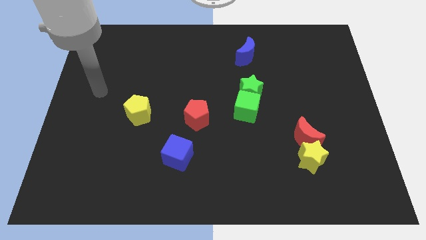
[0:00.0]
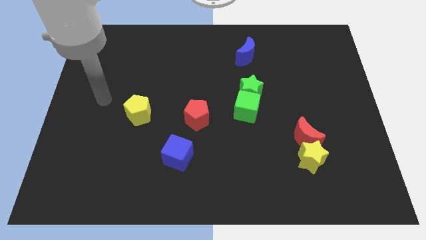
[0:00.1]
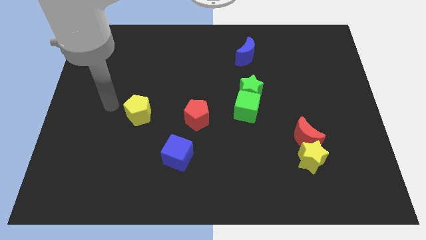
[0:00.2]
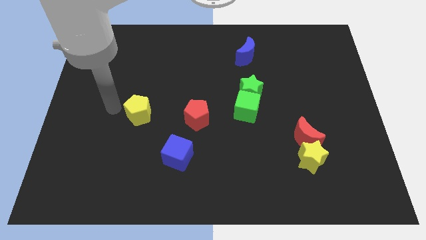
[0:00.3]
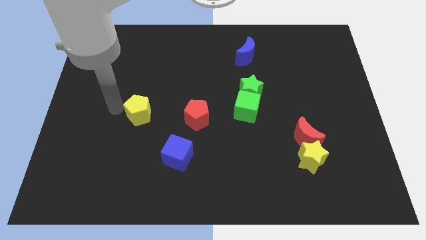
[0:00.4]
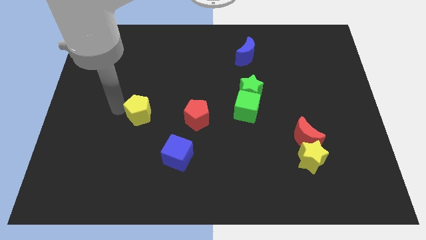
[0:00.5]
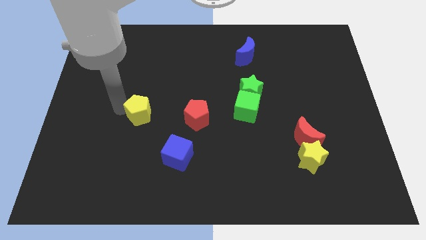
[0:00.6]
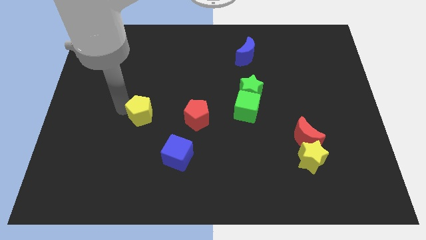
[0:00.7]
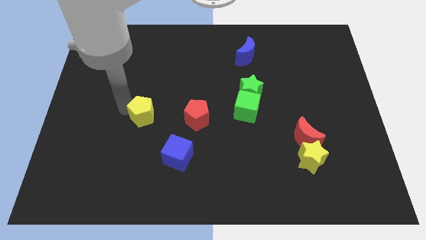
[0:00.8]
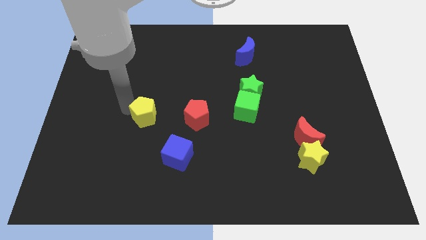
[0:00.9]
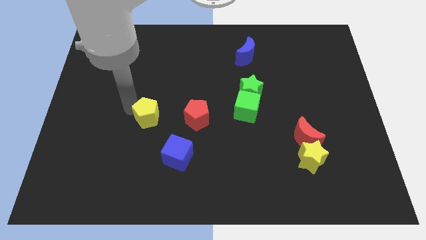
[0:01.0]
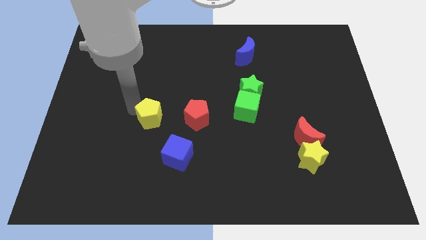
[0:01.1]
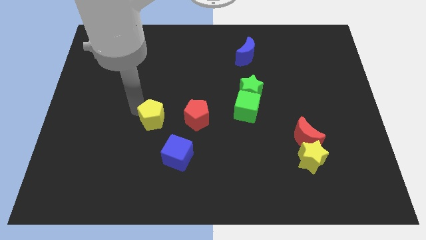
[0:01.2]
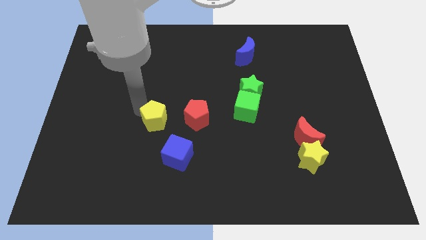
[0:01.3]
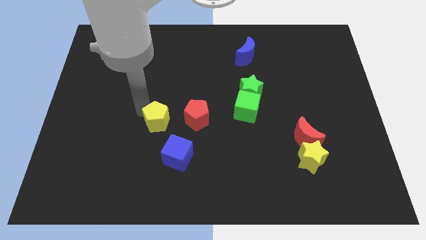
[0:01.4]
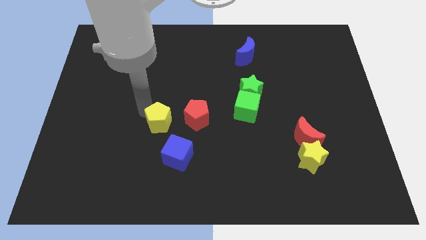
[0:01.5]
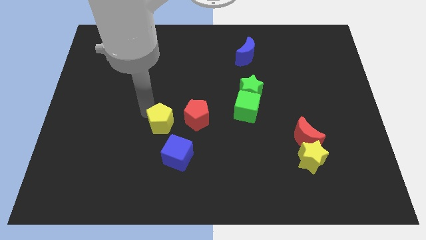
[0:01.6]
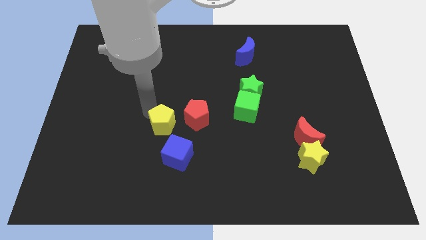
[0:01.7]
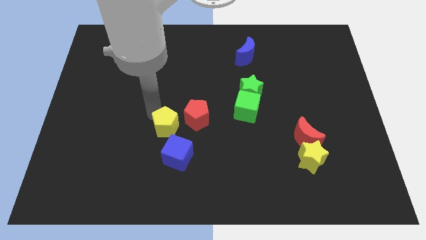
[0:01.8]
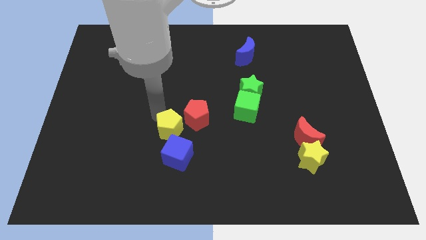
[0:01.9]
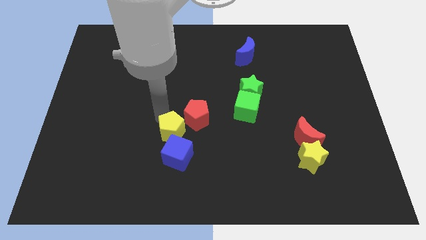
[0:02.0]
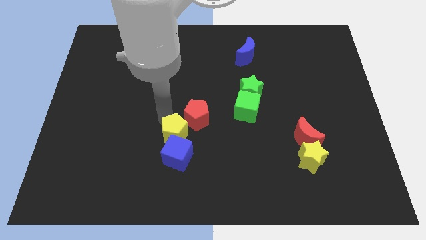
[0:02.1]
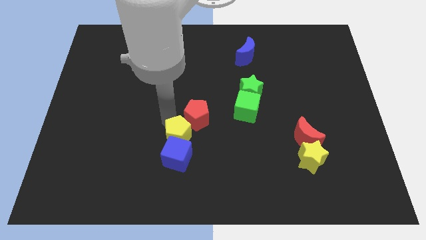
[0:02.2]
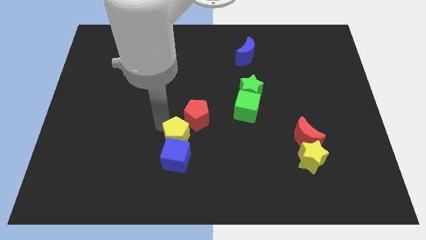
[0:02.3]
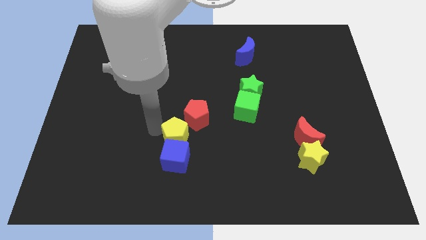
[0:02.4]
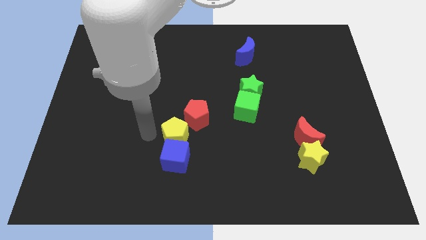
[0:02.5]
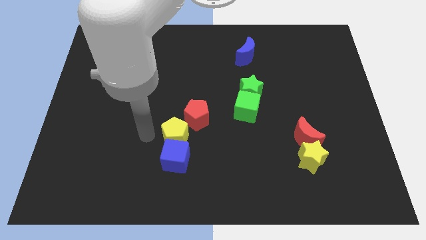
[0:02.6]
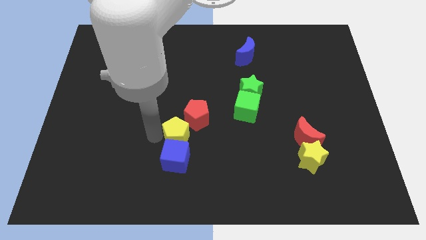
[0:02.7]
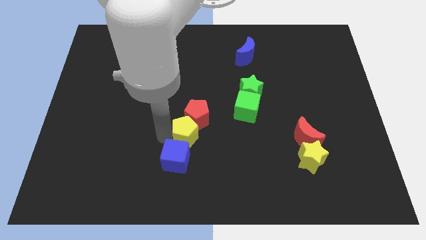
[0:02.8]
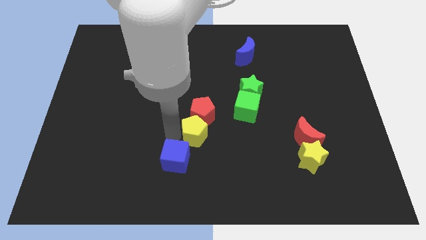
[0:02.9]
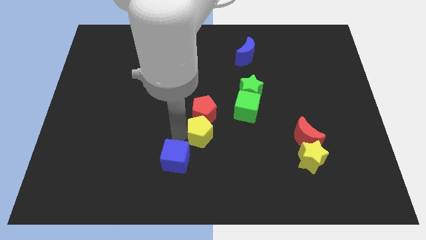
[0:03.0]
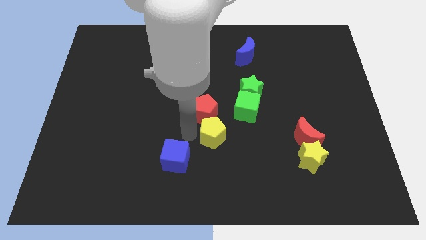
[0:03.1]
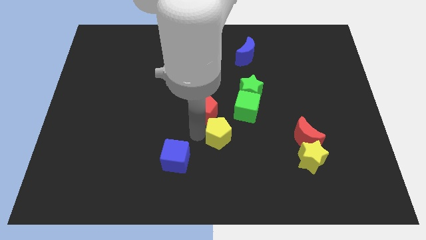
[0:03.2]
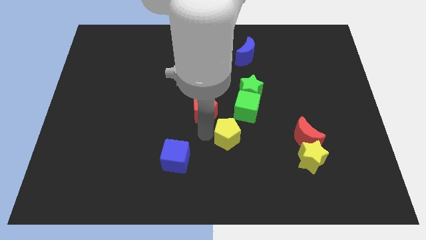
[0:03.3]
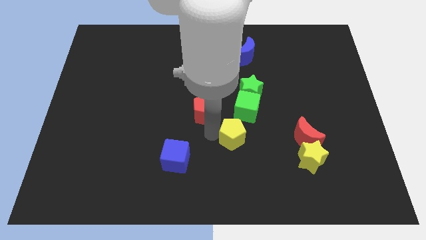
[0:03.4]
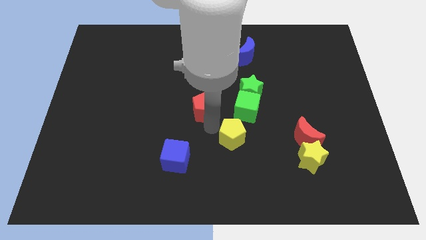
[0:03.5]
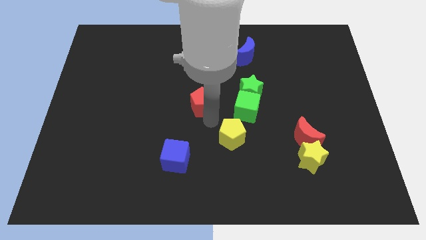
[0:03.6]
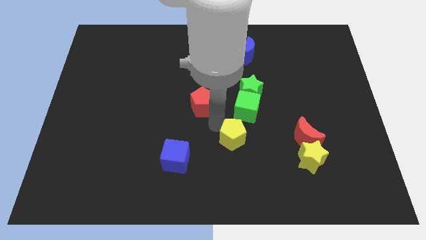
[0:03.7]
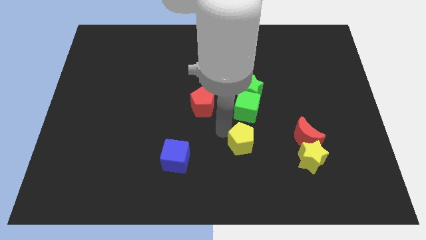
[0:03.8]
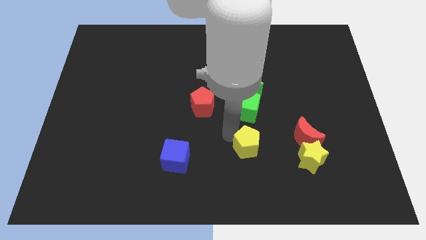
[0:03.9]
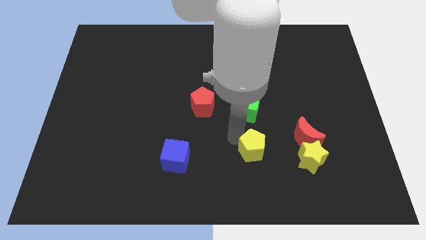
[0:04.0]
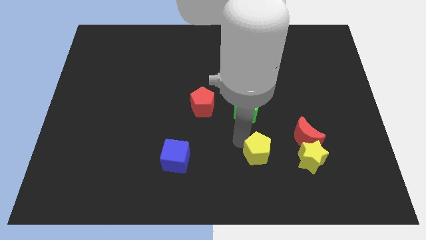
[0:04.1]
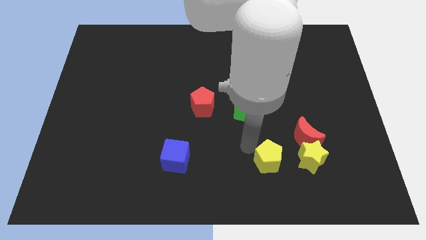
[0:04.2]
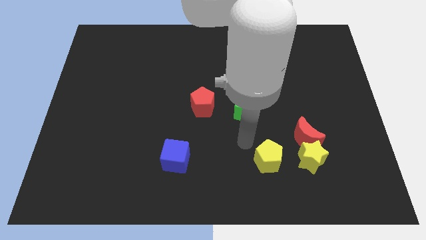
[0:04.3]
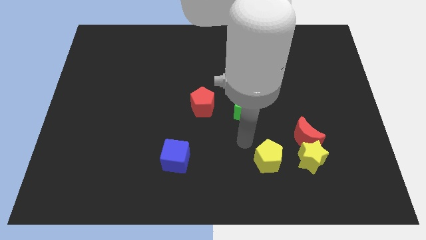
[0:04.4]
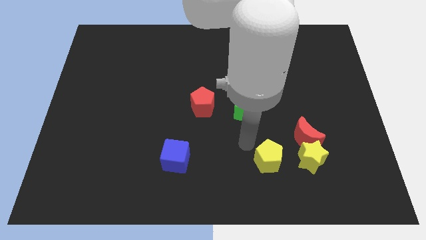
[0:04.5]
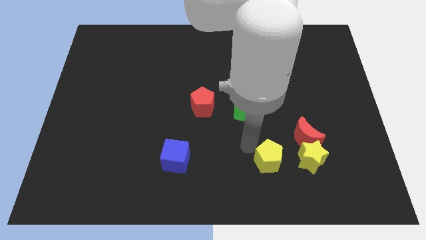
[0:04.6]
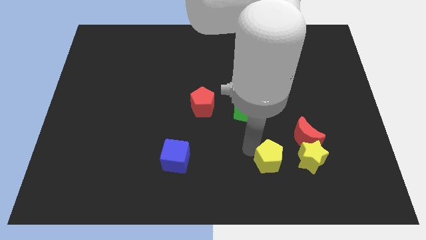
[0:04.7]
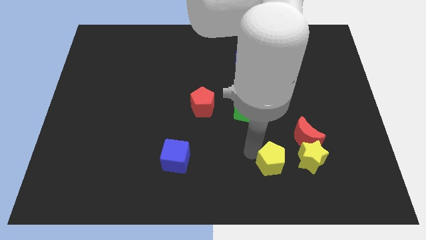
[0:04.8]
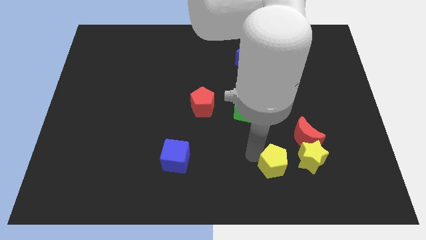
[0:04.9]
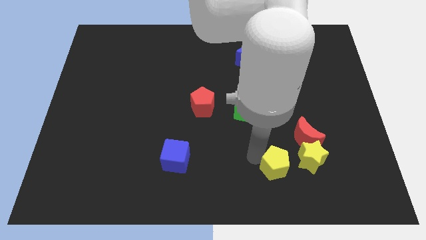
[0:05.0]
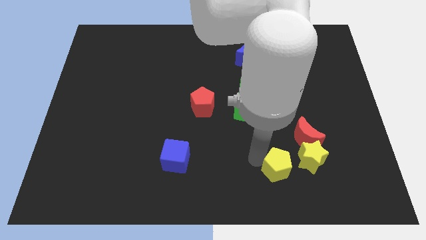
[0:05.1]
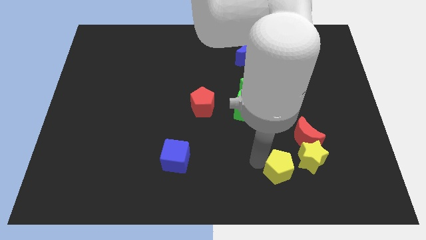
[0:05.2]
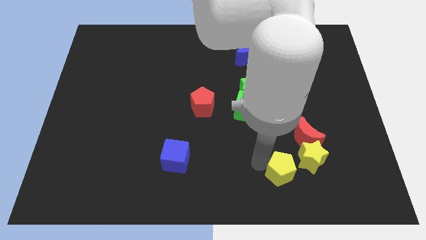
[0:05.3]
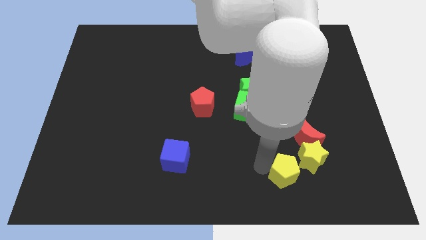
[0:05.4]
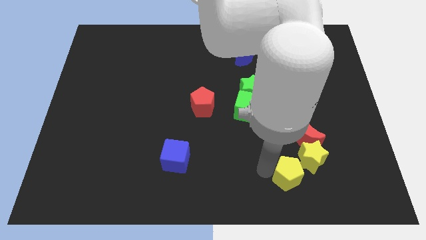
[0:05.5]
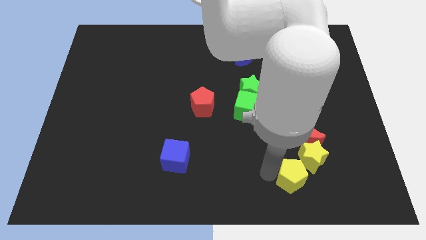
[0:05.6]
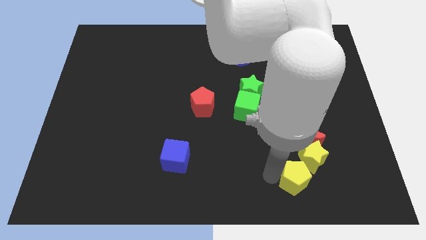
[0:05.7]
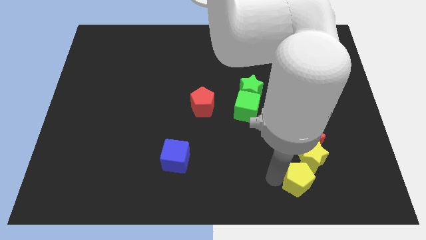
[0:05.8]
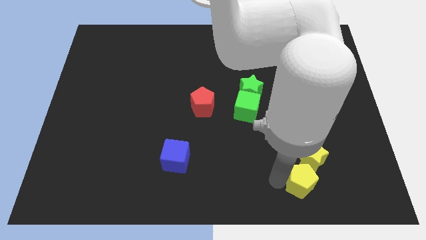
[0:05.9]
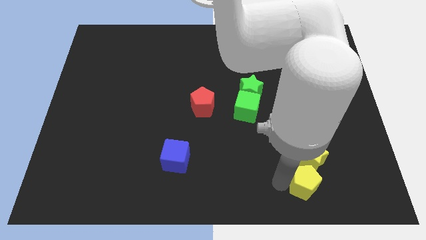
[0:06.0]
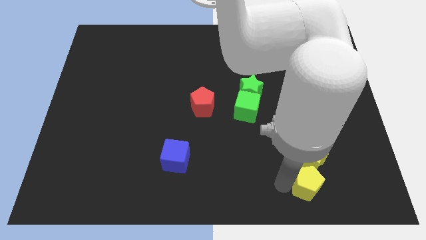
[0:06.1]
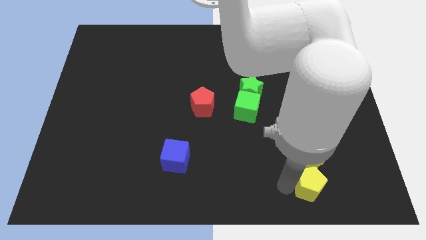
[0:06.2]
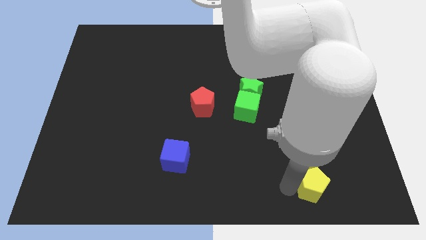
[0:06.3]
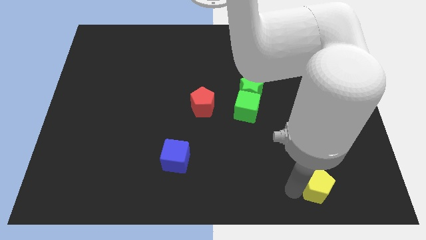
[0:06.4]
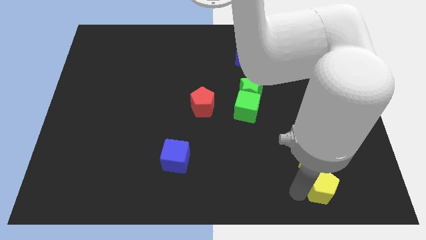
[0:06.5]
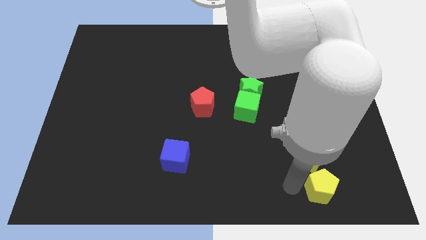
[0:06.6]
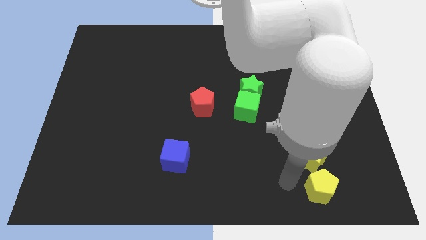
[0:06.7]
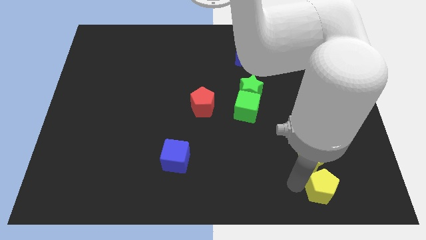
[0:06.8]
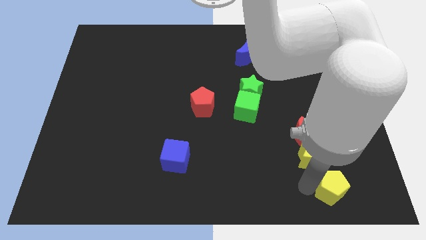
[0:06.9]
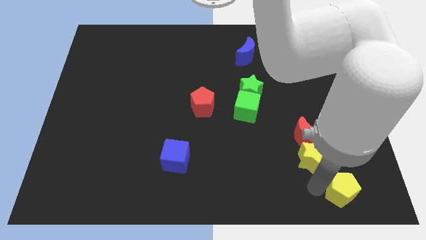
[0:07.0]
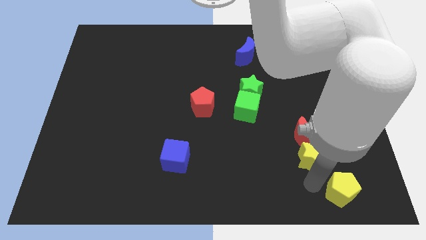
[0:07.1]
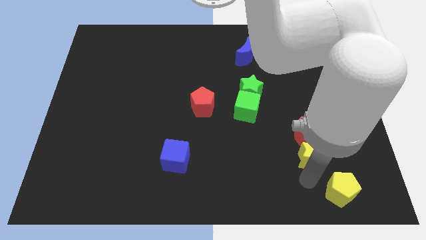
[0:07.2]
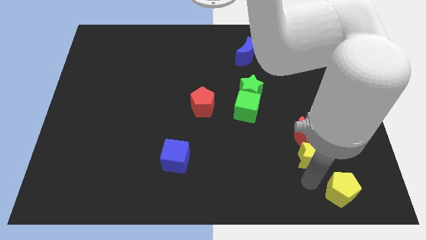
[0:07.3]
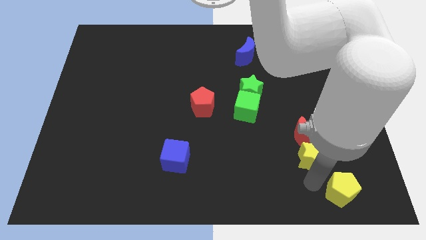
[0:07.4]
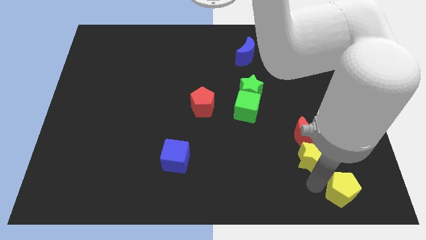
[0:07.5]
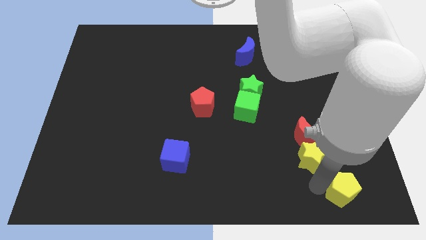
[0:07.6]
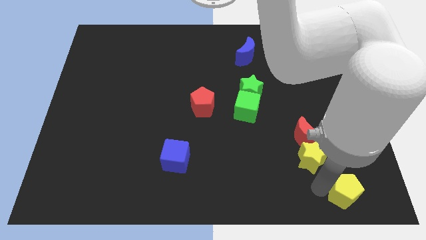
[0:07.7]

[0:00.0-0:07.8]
put the yellow pentagon to the bottom right corner
